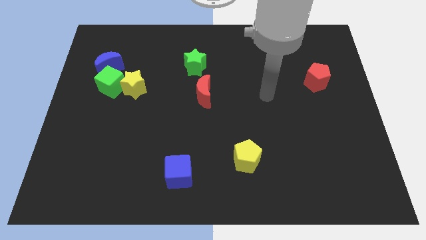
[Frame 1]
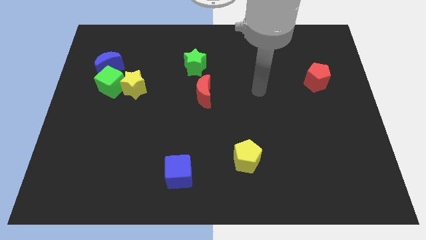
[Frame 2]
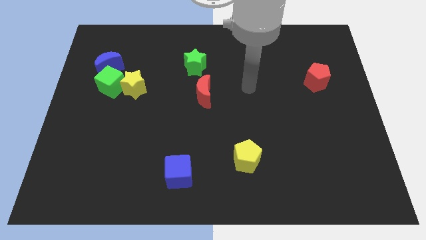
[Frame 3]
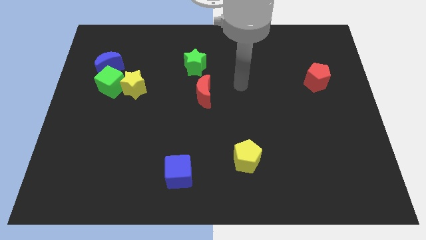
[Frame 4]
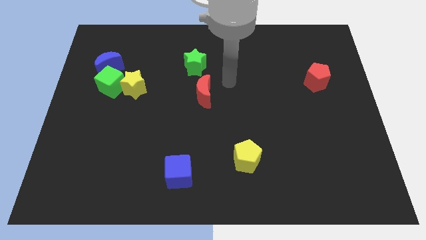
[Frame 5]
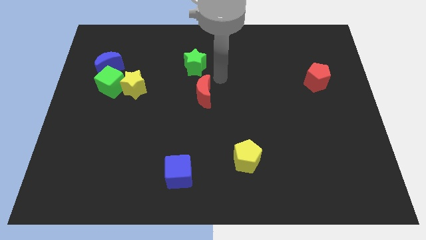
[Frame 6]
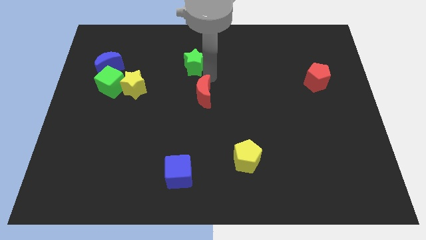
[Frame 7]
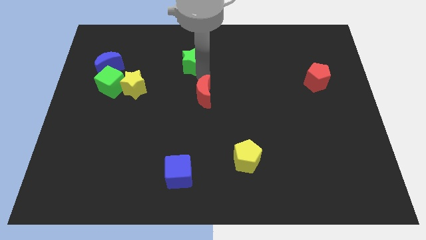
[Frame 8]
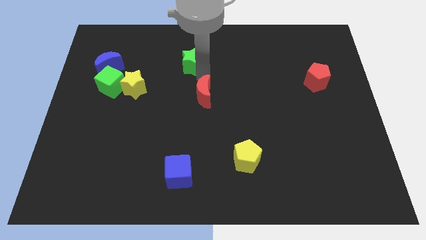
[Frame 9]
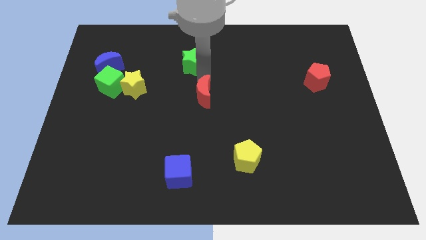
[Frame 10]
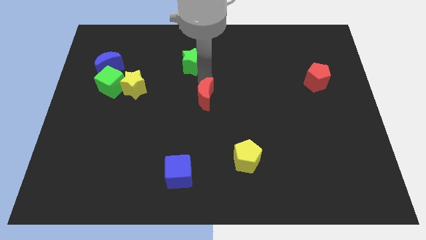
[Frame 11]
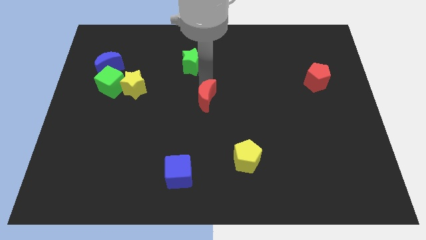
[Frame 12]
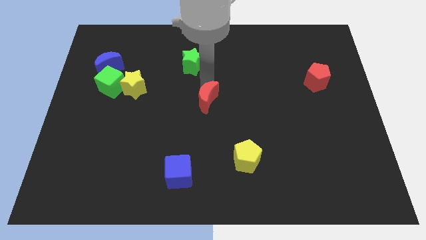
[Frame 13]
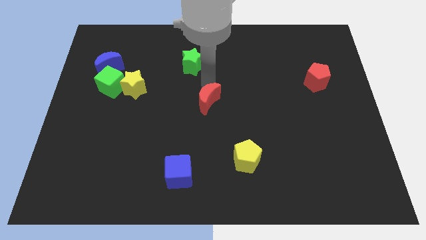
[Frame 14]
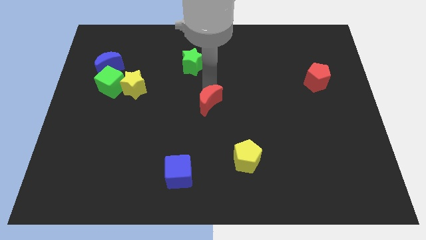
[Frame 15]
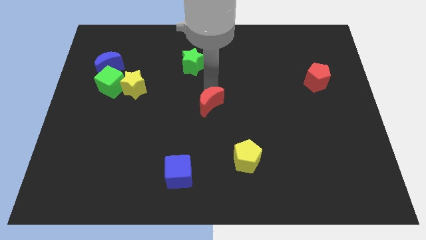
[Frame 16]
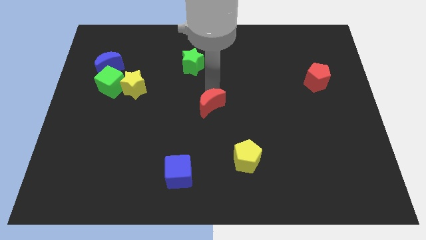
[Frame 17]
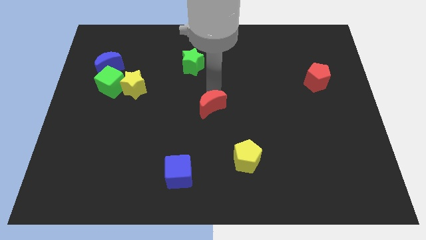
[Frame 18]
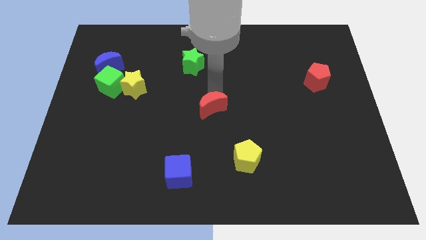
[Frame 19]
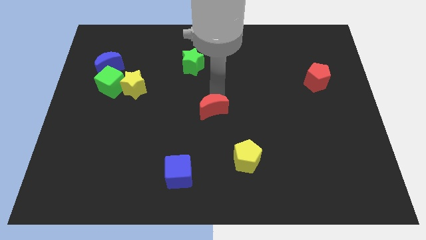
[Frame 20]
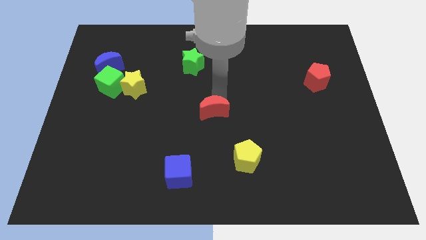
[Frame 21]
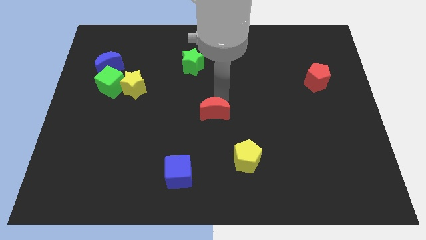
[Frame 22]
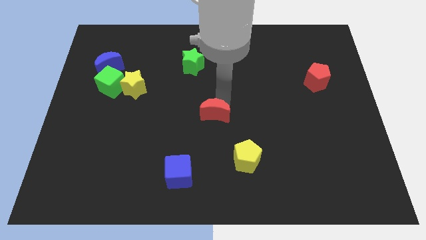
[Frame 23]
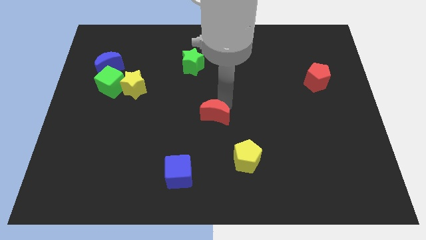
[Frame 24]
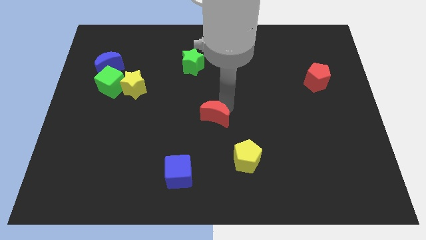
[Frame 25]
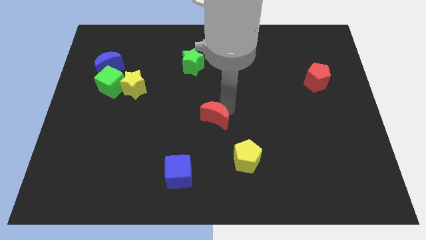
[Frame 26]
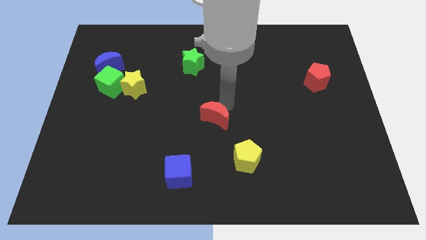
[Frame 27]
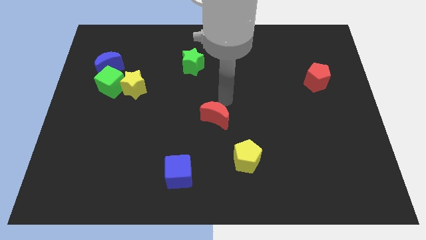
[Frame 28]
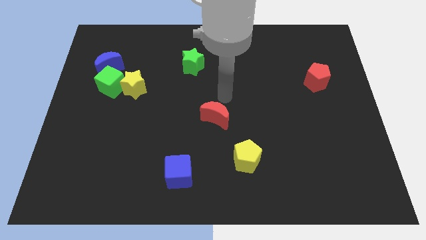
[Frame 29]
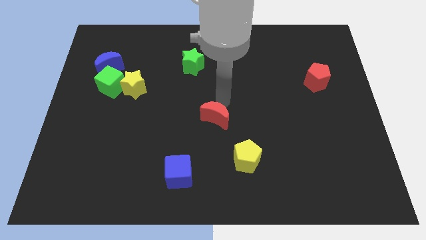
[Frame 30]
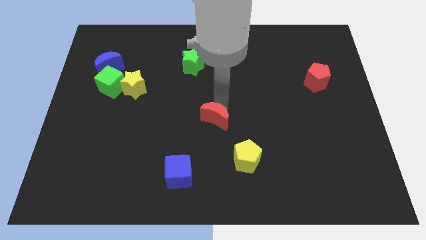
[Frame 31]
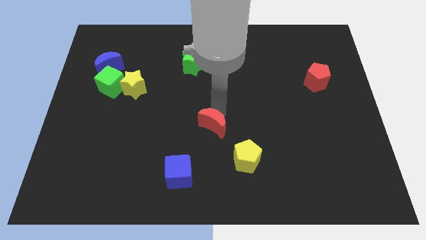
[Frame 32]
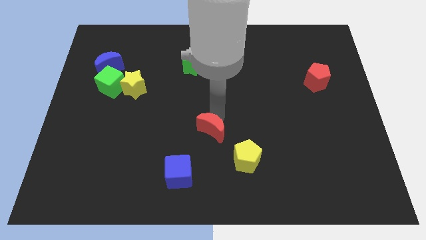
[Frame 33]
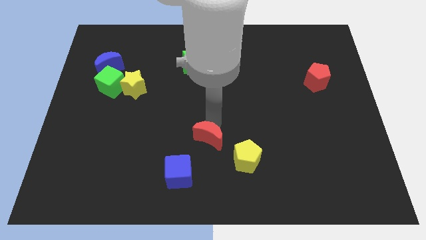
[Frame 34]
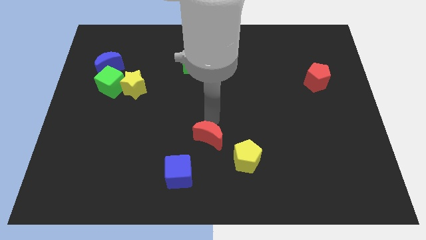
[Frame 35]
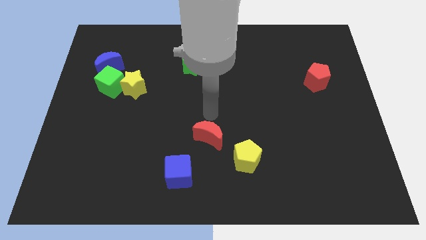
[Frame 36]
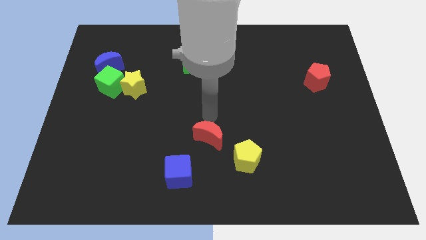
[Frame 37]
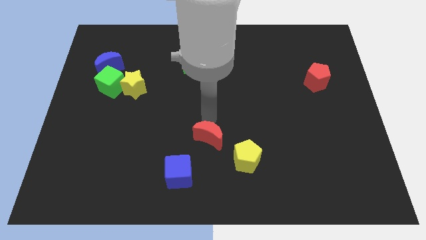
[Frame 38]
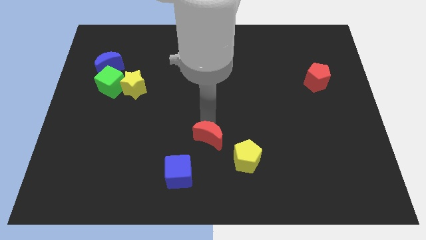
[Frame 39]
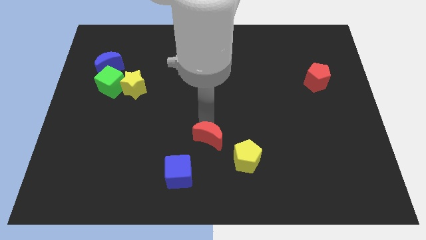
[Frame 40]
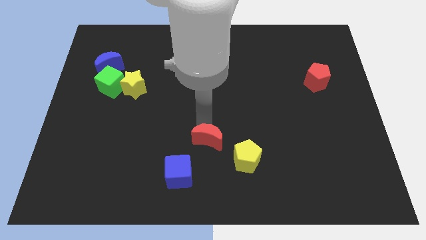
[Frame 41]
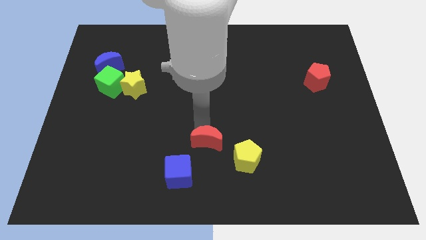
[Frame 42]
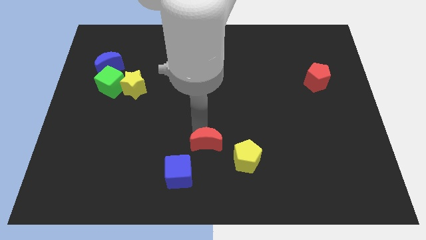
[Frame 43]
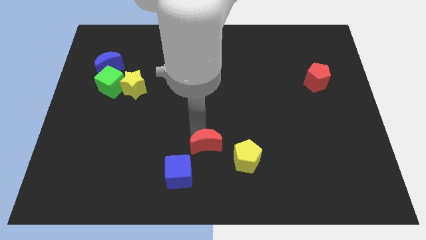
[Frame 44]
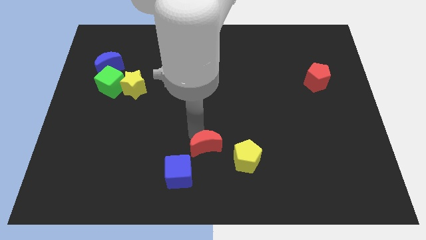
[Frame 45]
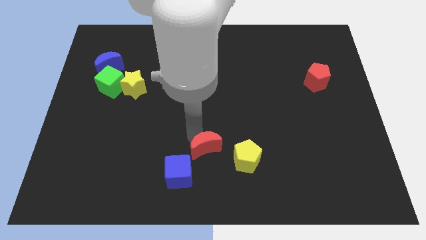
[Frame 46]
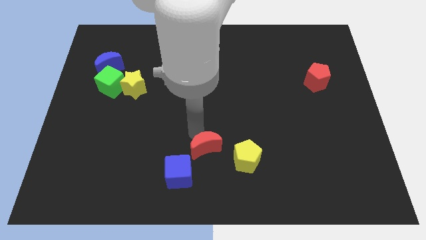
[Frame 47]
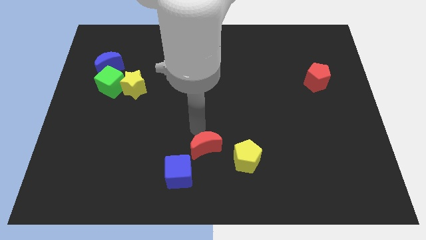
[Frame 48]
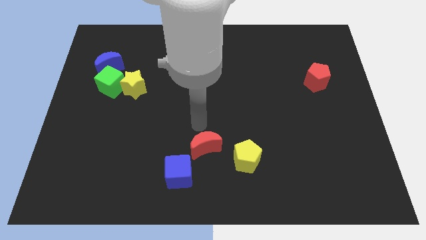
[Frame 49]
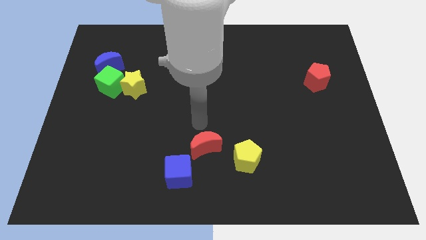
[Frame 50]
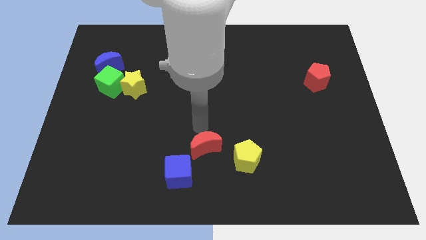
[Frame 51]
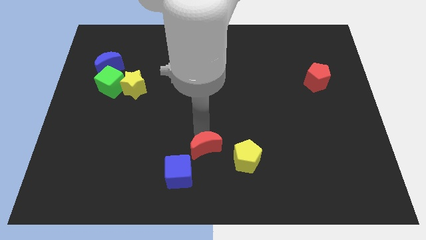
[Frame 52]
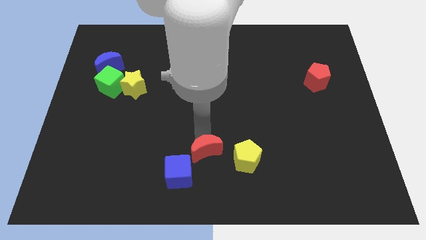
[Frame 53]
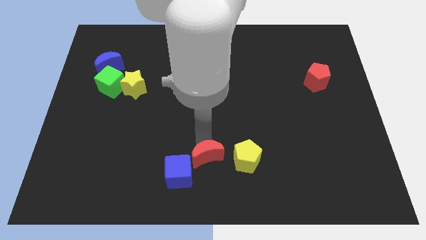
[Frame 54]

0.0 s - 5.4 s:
slide the red moon to the bottom side

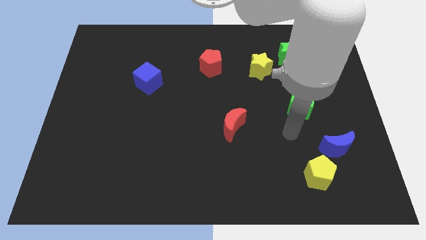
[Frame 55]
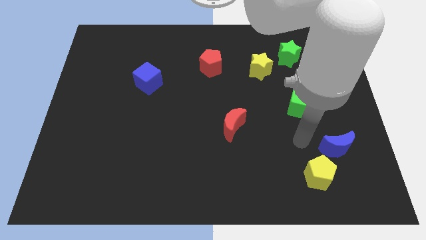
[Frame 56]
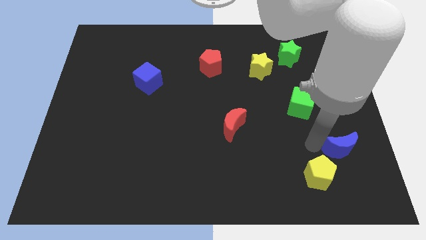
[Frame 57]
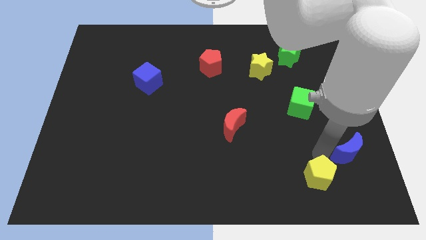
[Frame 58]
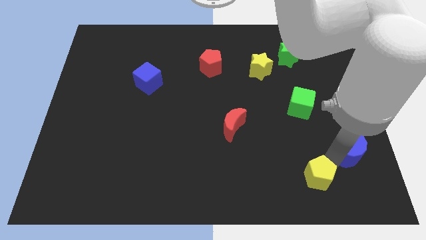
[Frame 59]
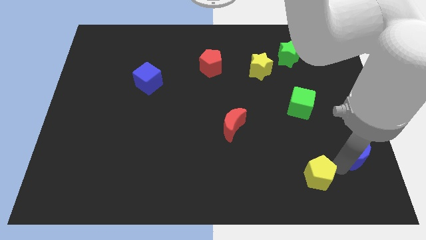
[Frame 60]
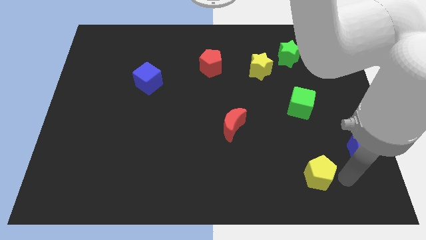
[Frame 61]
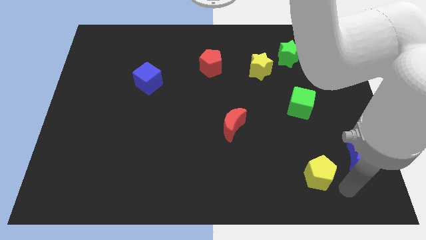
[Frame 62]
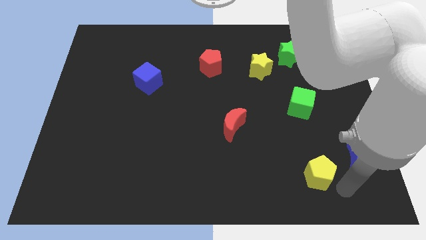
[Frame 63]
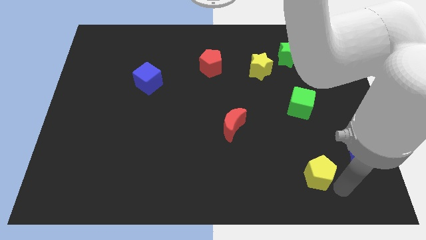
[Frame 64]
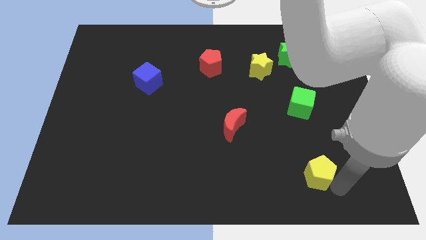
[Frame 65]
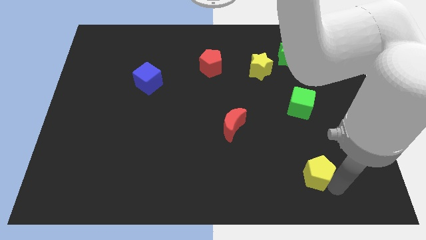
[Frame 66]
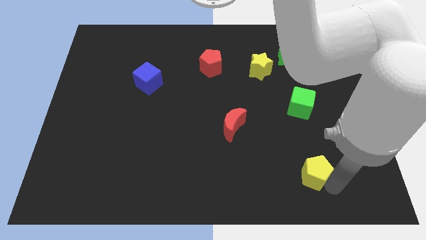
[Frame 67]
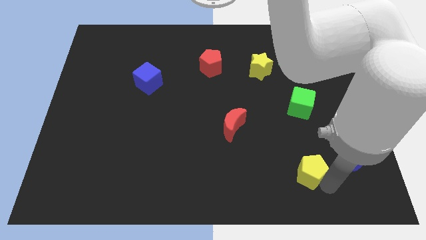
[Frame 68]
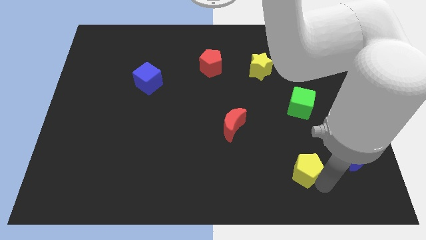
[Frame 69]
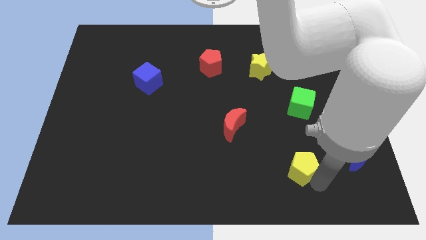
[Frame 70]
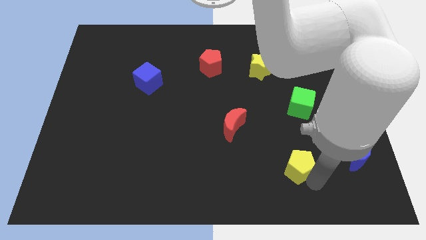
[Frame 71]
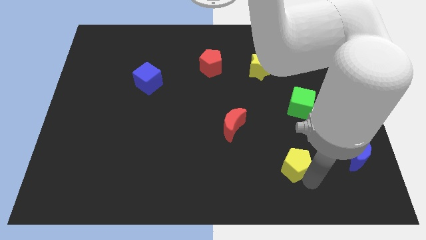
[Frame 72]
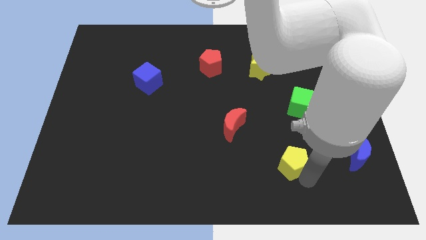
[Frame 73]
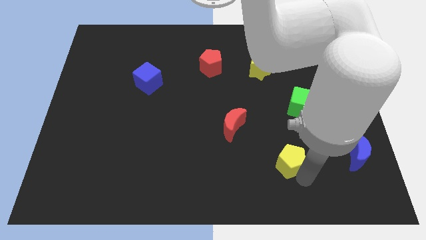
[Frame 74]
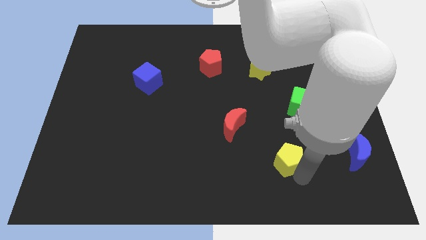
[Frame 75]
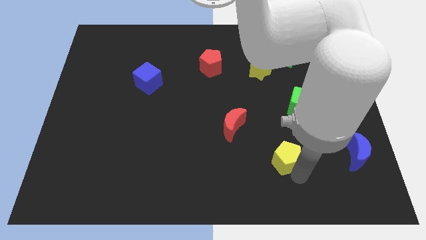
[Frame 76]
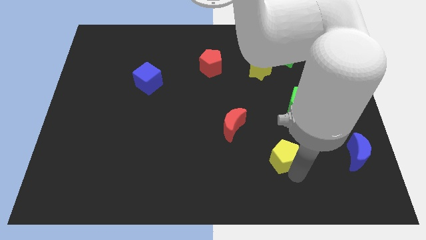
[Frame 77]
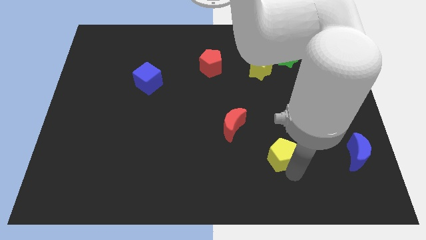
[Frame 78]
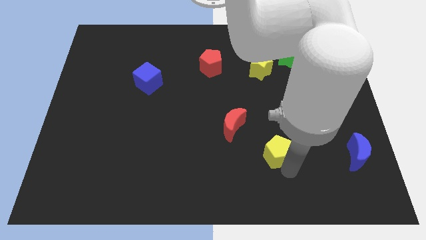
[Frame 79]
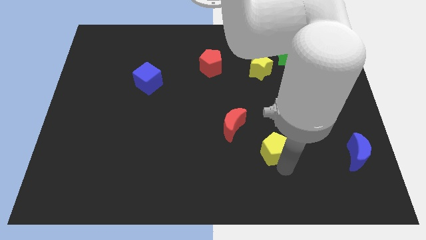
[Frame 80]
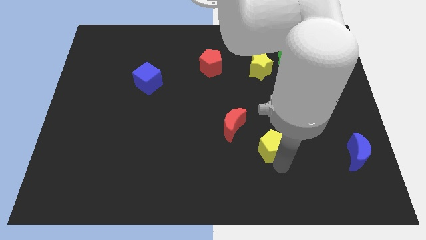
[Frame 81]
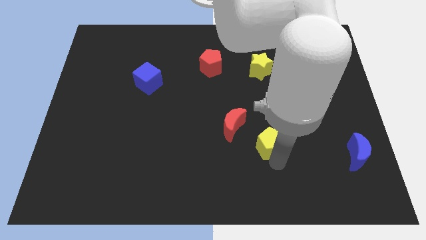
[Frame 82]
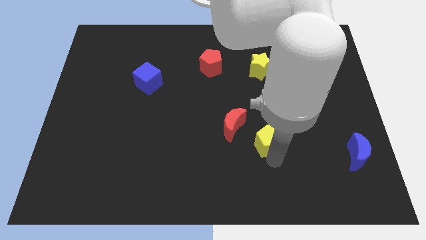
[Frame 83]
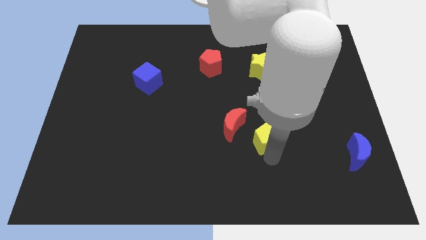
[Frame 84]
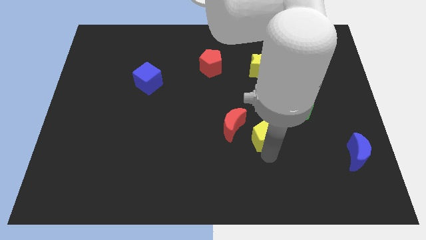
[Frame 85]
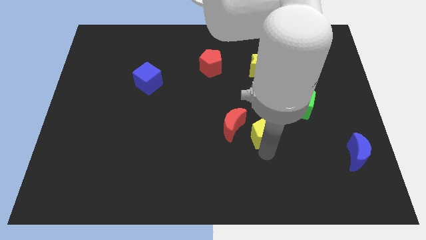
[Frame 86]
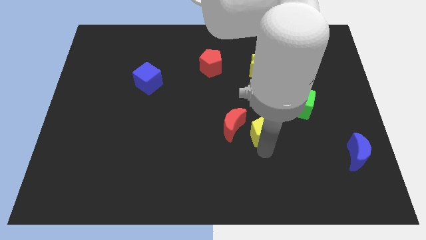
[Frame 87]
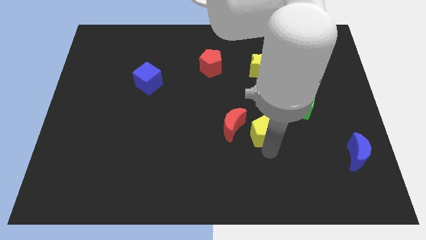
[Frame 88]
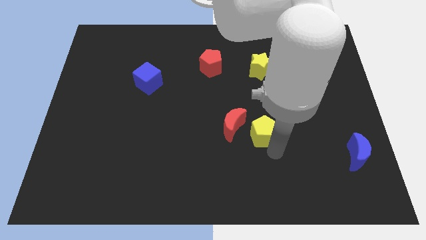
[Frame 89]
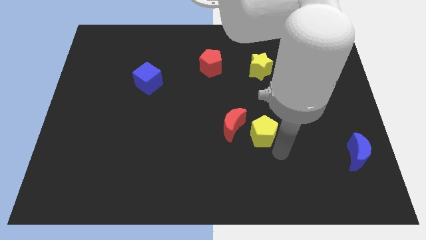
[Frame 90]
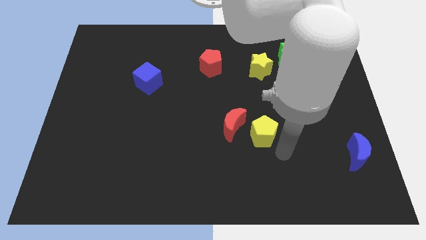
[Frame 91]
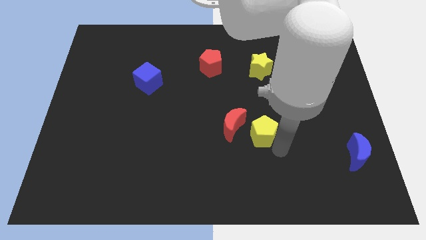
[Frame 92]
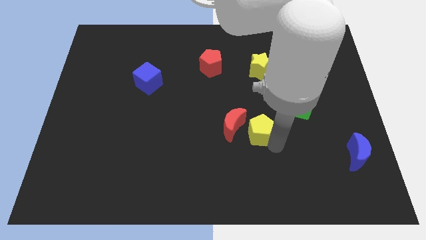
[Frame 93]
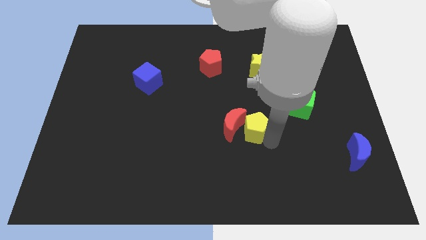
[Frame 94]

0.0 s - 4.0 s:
push the yellow pentagon to the middle
